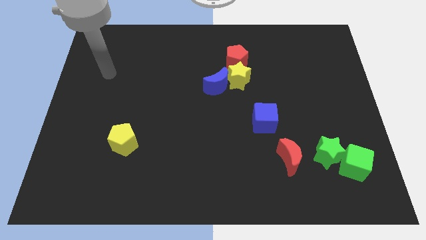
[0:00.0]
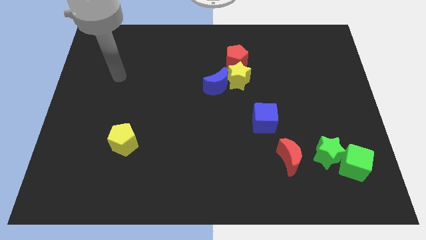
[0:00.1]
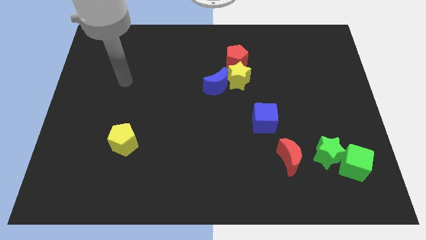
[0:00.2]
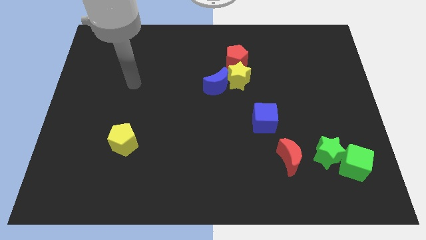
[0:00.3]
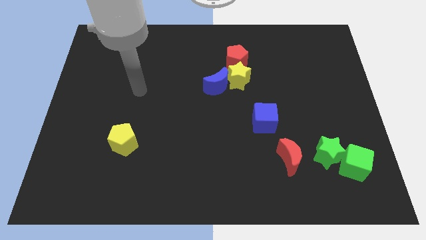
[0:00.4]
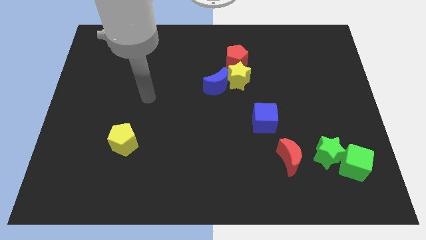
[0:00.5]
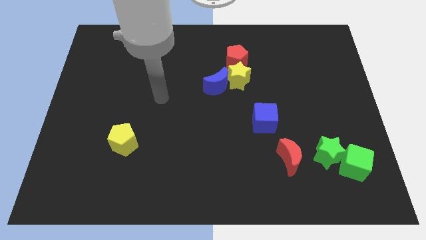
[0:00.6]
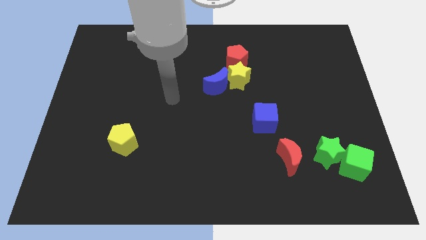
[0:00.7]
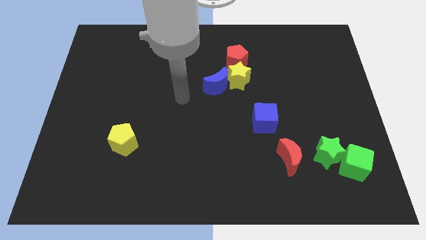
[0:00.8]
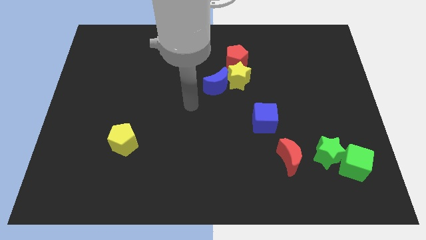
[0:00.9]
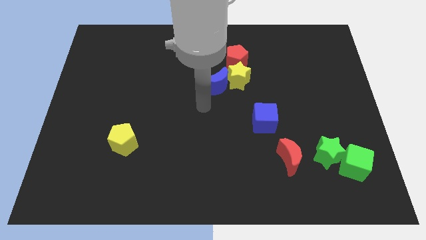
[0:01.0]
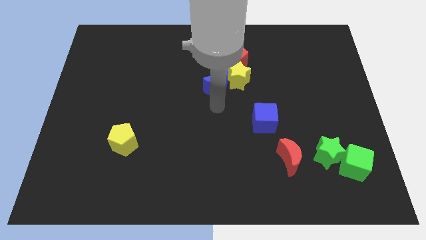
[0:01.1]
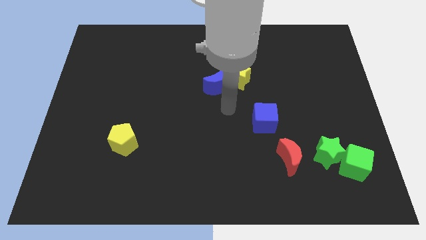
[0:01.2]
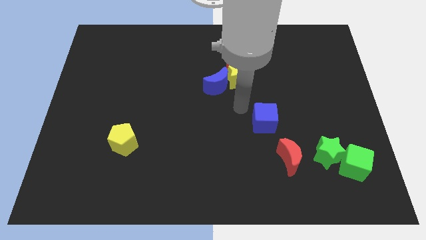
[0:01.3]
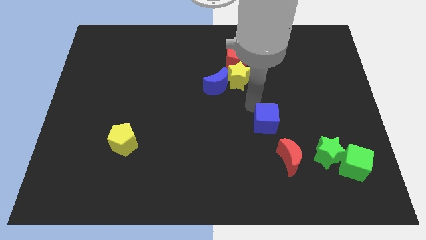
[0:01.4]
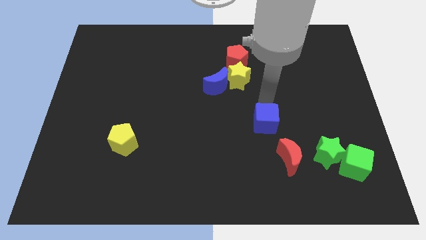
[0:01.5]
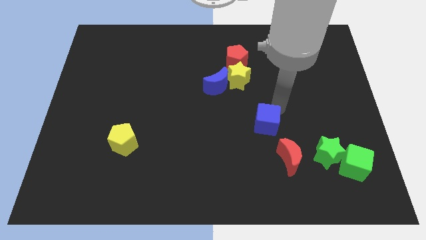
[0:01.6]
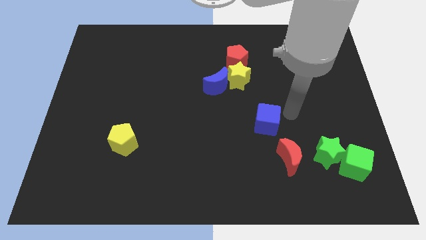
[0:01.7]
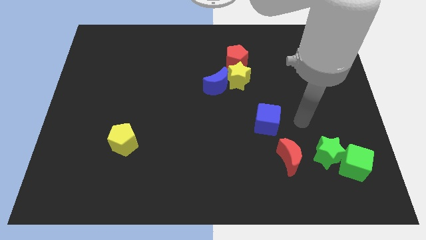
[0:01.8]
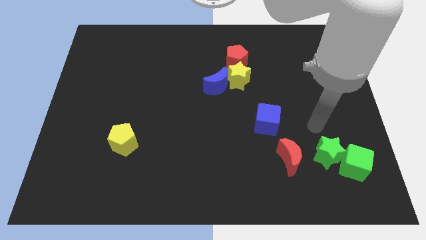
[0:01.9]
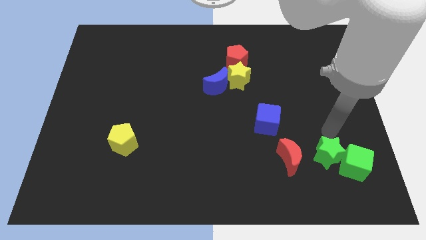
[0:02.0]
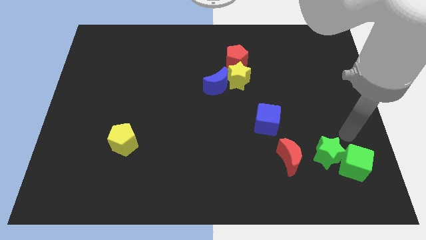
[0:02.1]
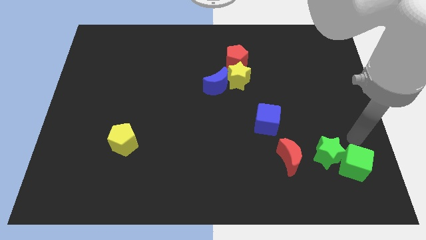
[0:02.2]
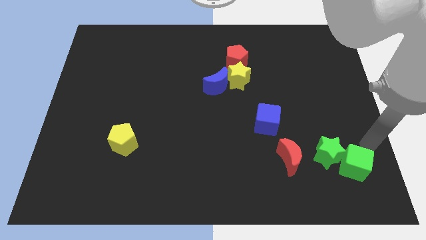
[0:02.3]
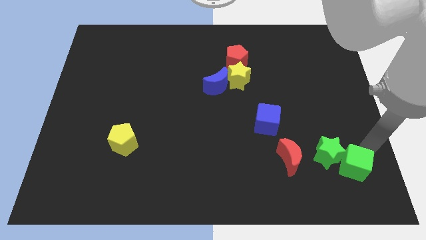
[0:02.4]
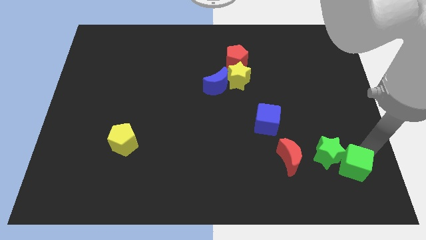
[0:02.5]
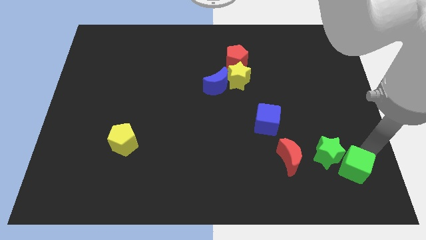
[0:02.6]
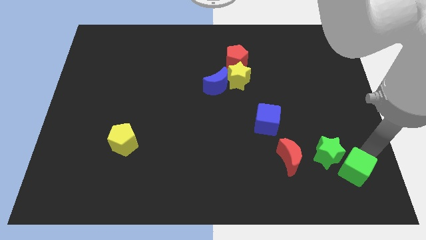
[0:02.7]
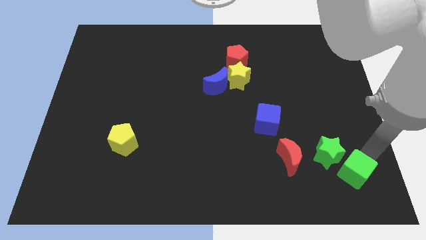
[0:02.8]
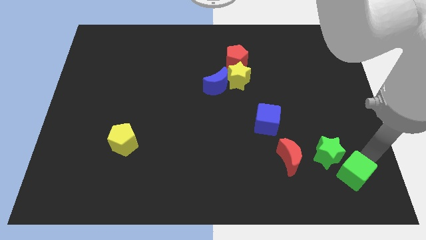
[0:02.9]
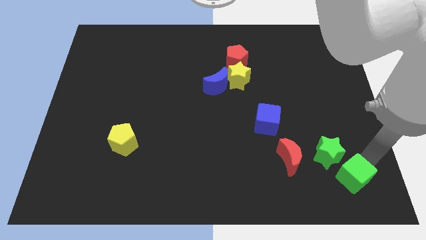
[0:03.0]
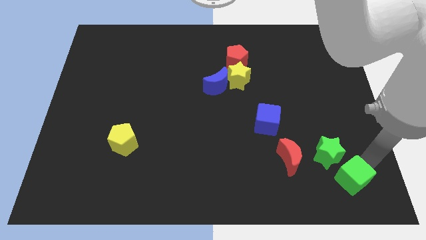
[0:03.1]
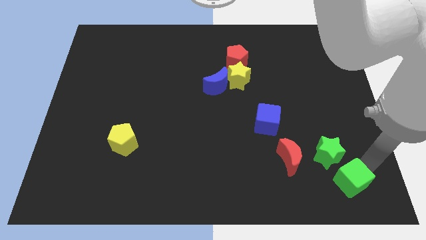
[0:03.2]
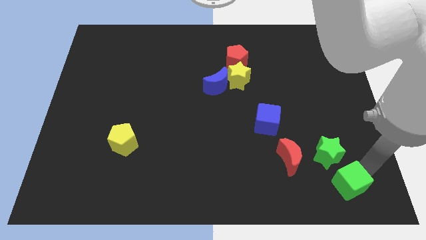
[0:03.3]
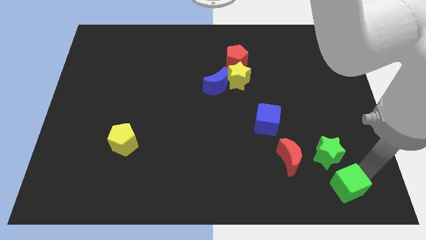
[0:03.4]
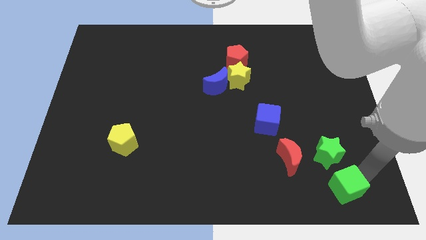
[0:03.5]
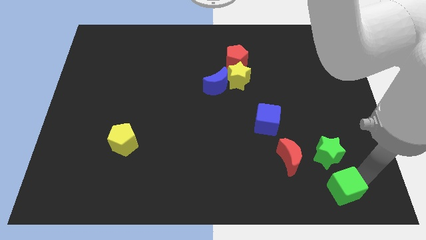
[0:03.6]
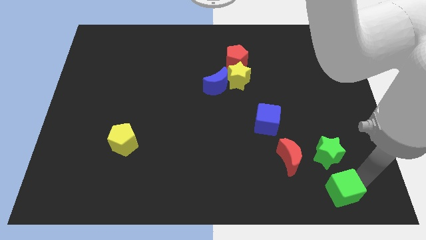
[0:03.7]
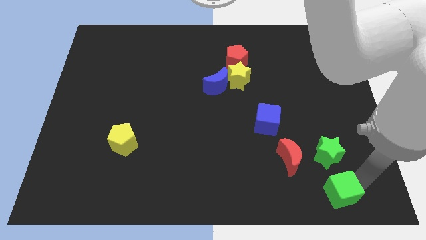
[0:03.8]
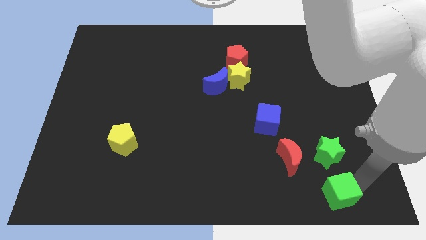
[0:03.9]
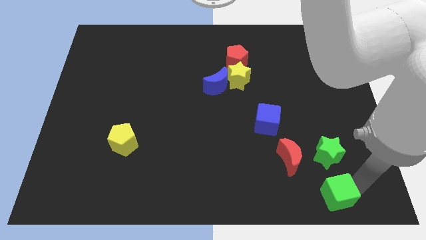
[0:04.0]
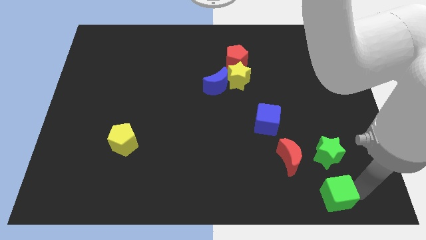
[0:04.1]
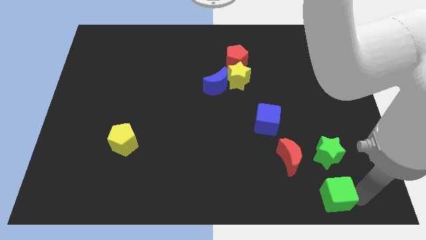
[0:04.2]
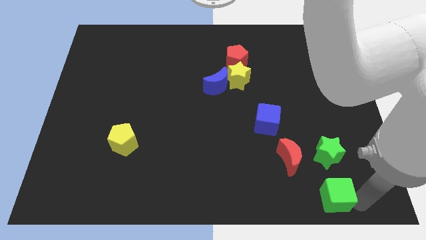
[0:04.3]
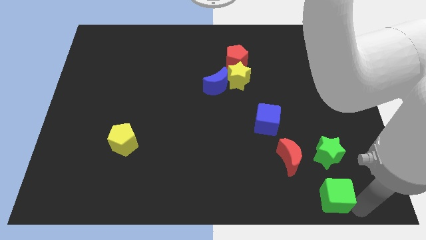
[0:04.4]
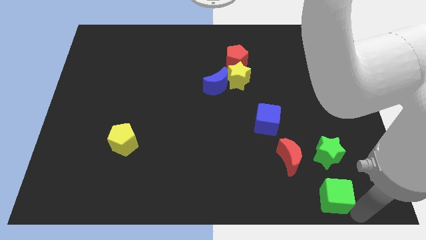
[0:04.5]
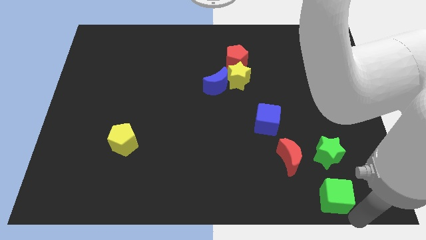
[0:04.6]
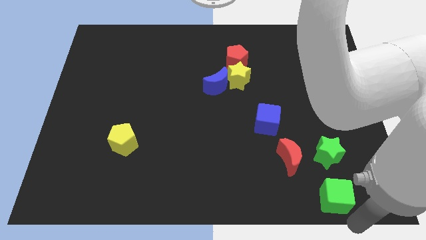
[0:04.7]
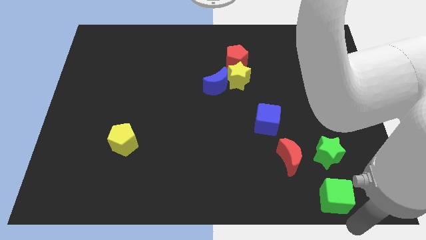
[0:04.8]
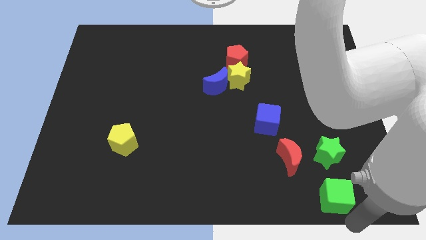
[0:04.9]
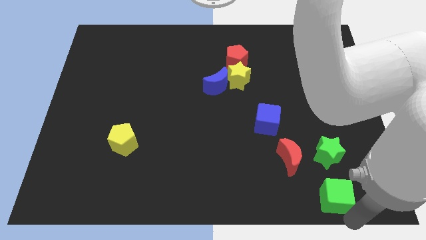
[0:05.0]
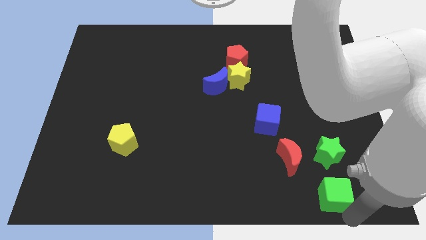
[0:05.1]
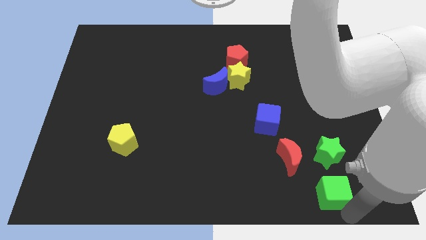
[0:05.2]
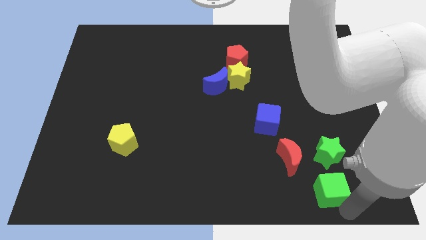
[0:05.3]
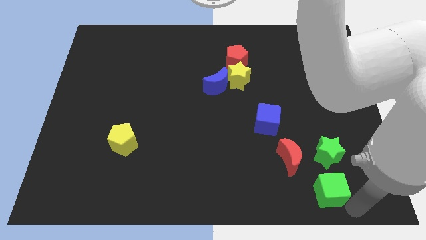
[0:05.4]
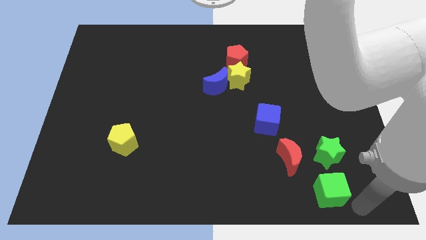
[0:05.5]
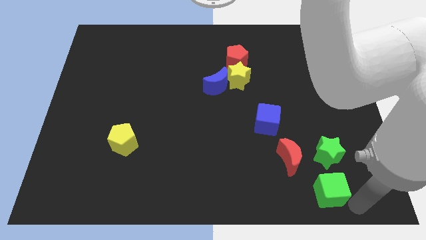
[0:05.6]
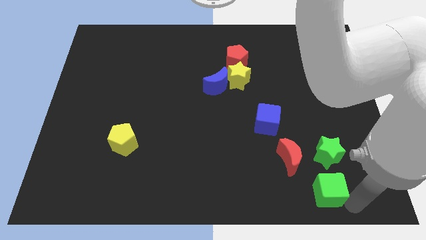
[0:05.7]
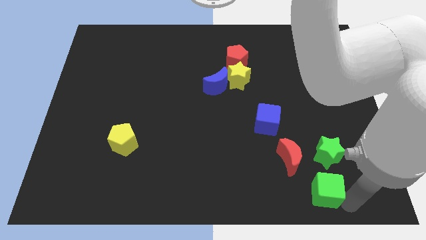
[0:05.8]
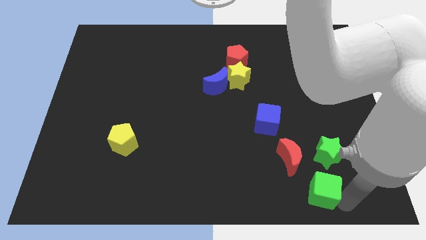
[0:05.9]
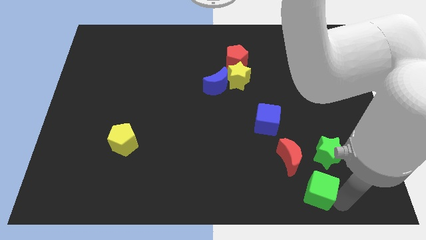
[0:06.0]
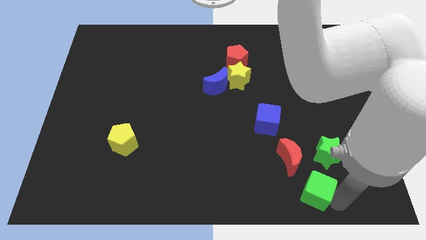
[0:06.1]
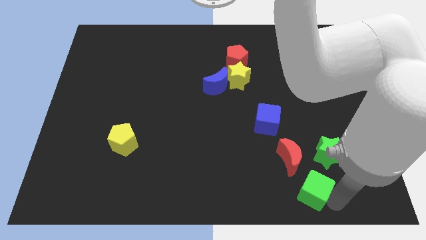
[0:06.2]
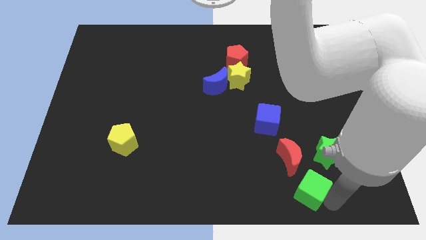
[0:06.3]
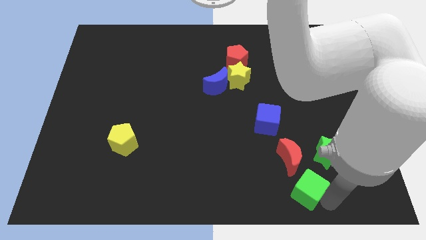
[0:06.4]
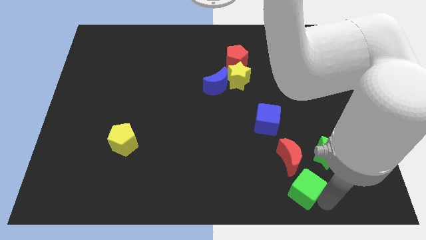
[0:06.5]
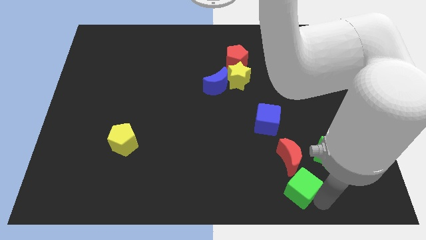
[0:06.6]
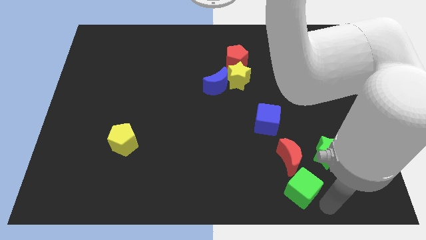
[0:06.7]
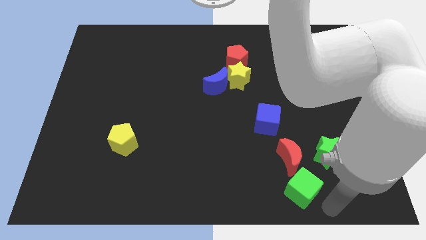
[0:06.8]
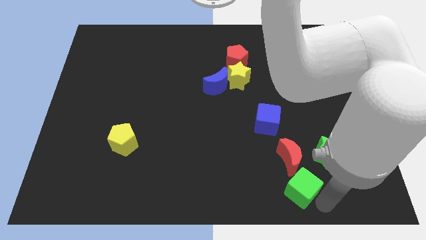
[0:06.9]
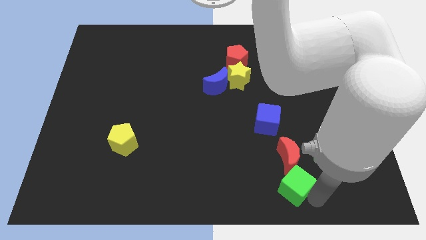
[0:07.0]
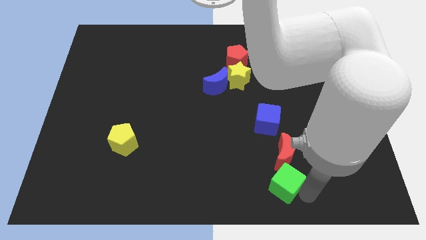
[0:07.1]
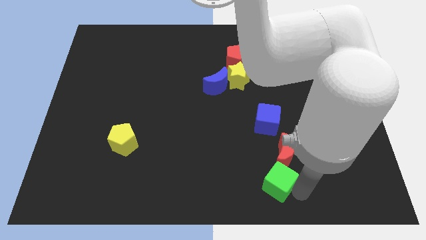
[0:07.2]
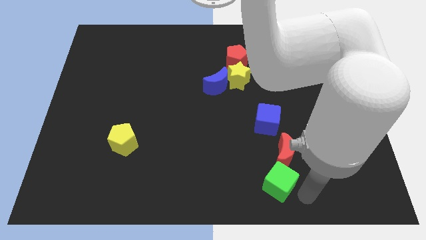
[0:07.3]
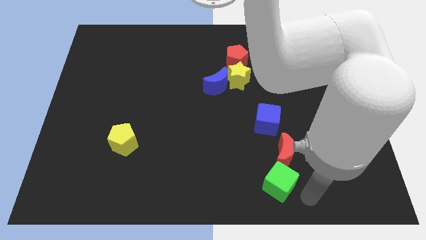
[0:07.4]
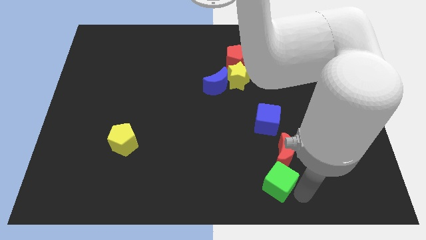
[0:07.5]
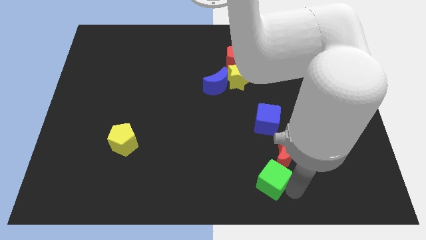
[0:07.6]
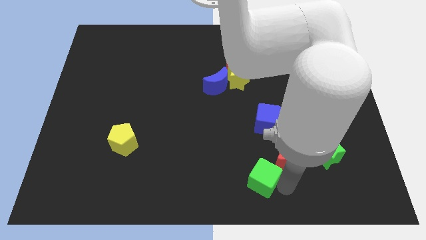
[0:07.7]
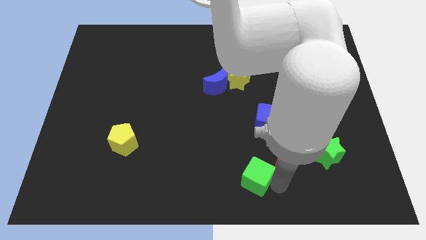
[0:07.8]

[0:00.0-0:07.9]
slide the green cube left
